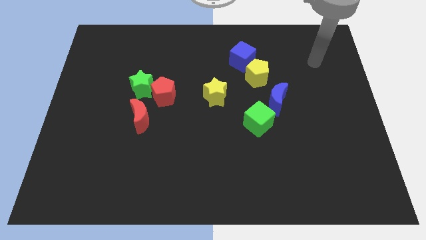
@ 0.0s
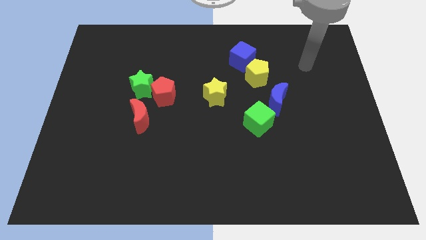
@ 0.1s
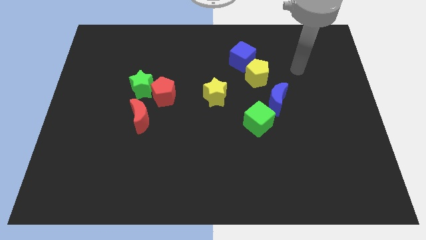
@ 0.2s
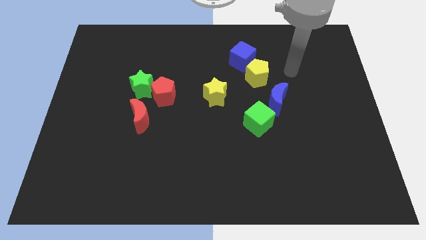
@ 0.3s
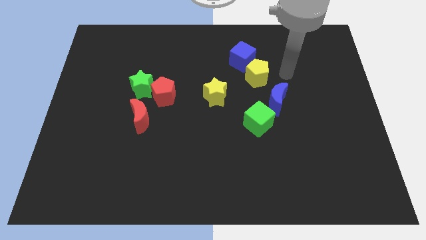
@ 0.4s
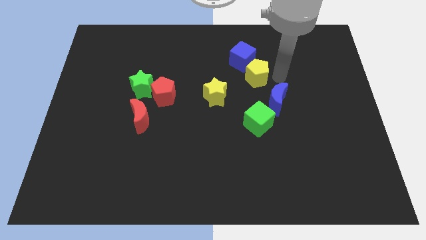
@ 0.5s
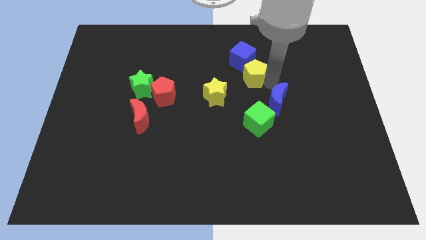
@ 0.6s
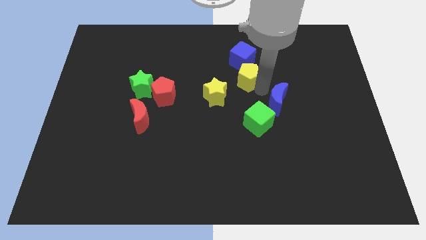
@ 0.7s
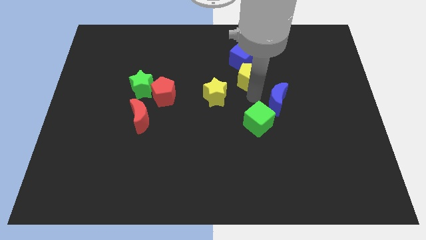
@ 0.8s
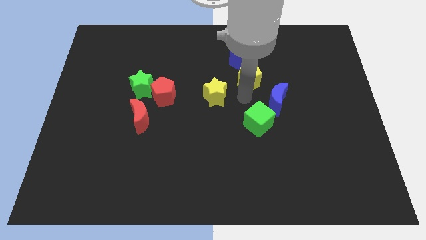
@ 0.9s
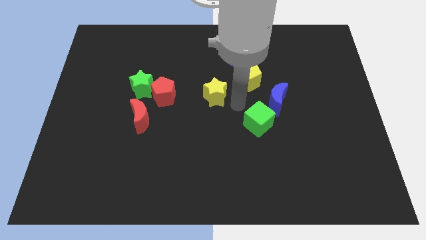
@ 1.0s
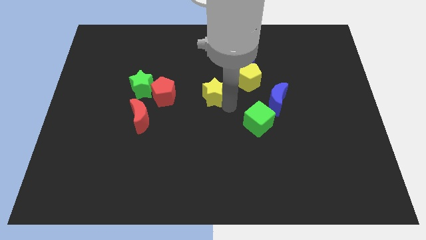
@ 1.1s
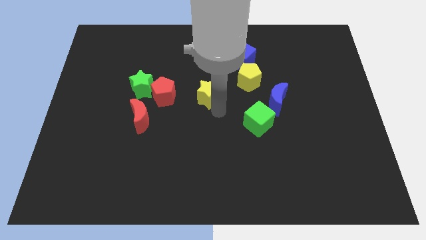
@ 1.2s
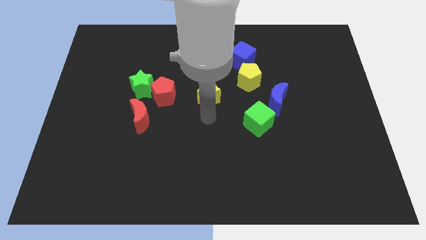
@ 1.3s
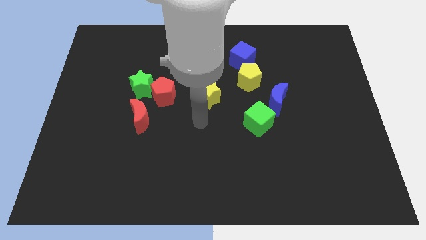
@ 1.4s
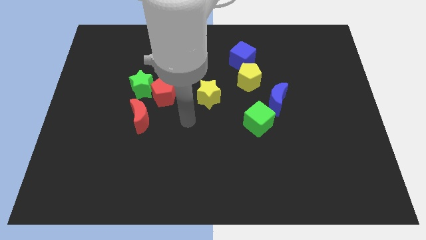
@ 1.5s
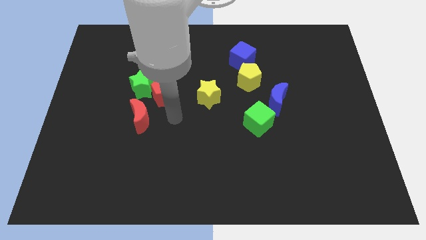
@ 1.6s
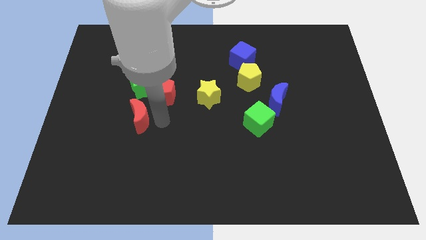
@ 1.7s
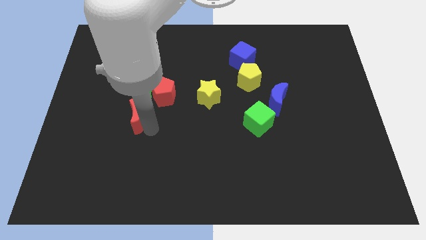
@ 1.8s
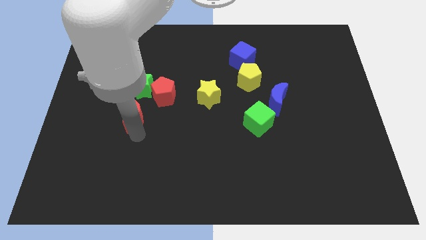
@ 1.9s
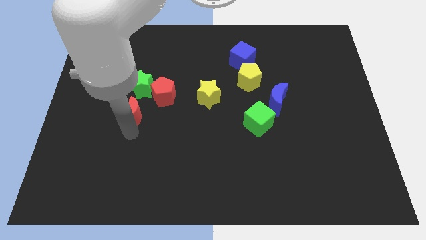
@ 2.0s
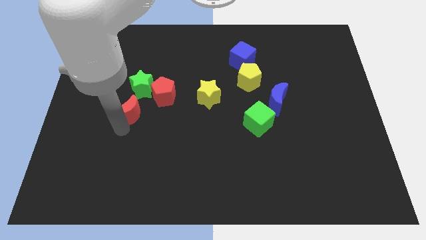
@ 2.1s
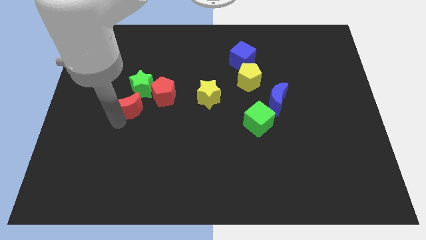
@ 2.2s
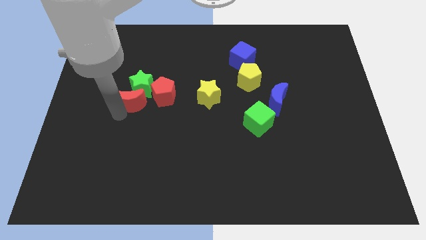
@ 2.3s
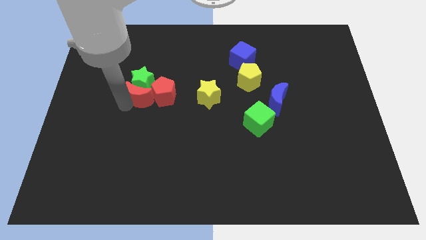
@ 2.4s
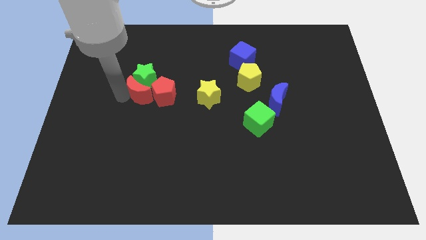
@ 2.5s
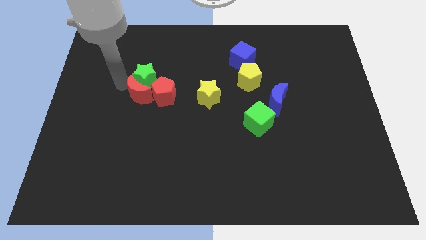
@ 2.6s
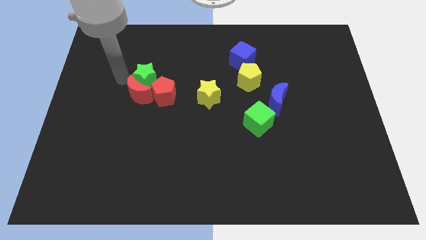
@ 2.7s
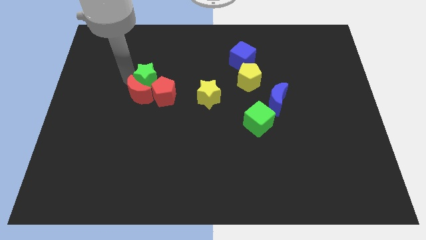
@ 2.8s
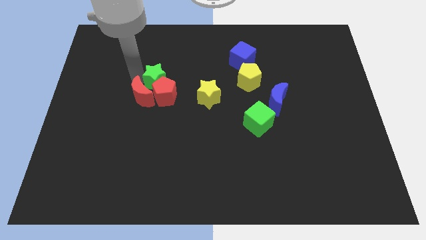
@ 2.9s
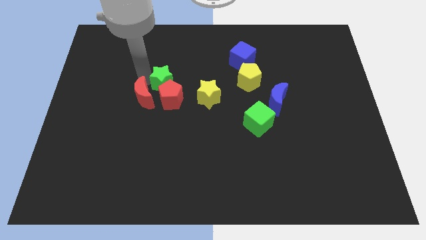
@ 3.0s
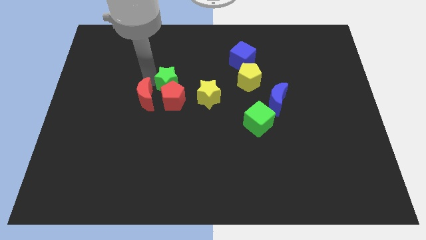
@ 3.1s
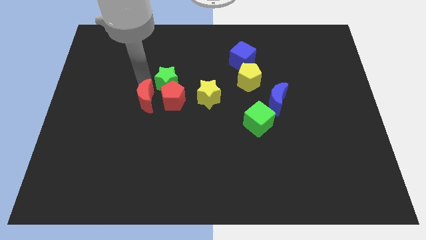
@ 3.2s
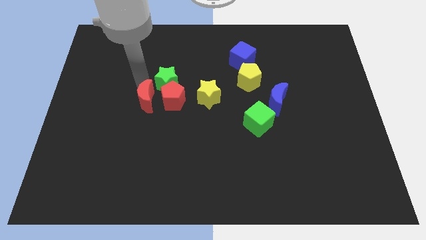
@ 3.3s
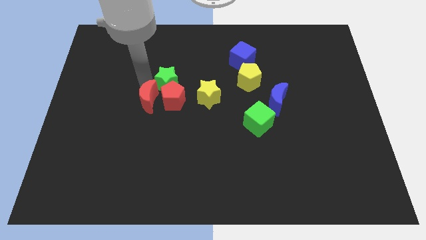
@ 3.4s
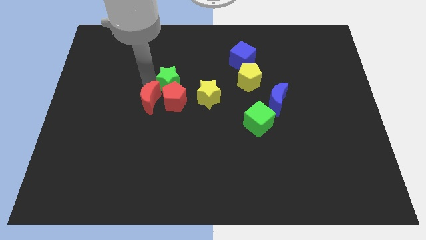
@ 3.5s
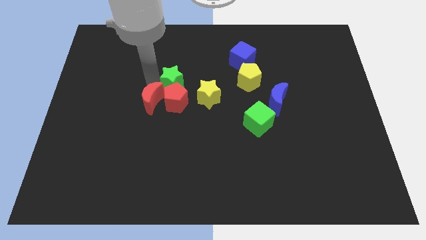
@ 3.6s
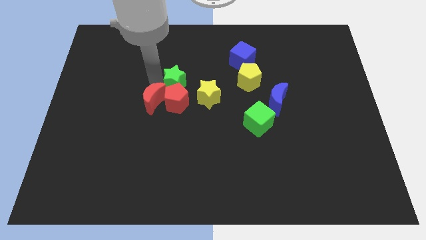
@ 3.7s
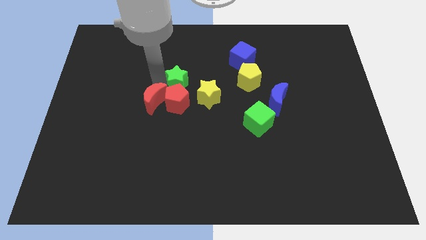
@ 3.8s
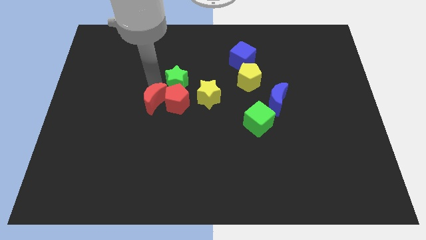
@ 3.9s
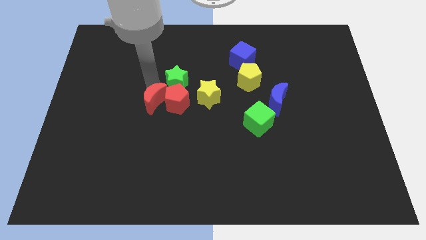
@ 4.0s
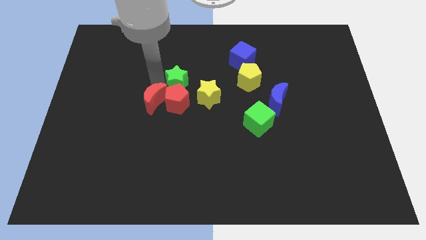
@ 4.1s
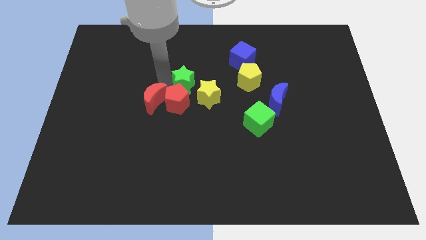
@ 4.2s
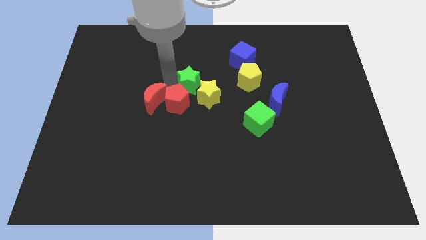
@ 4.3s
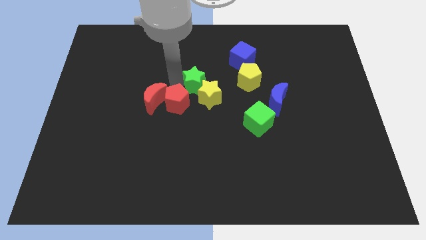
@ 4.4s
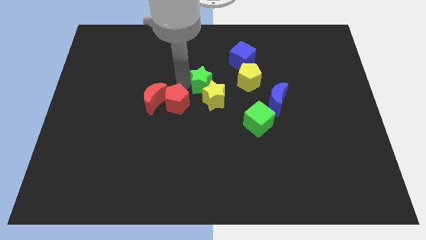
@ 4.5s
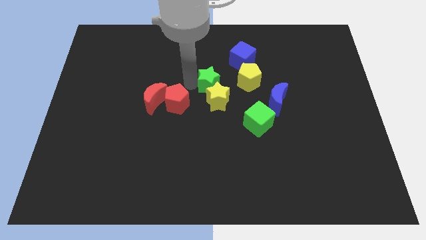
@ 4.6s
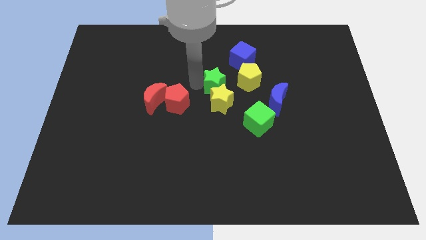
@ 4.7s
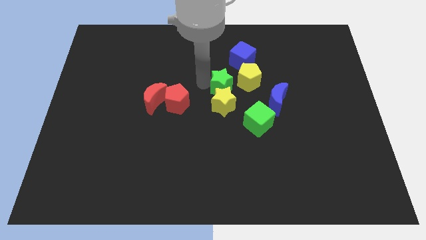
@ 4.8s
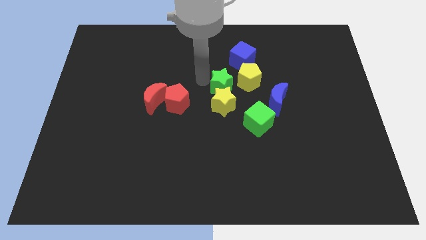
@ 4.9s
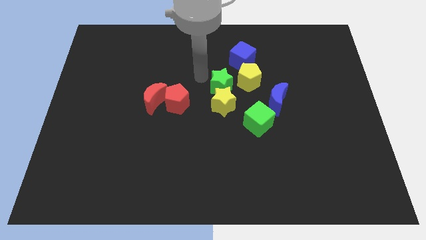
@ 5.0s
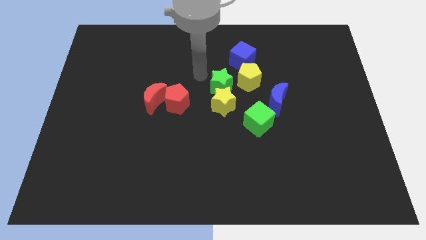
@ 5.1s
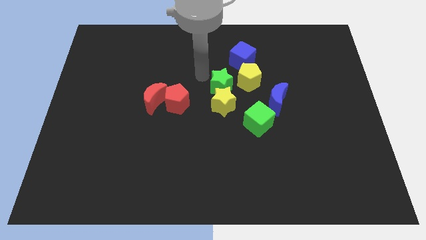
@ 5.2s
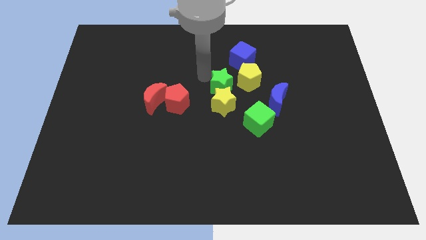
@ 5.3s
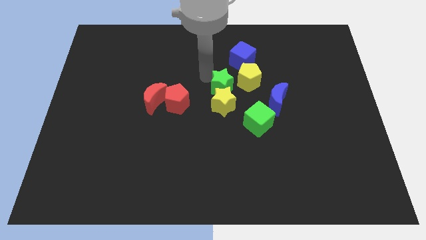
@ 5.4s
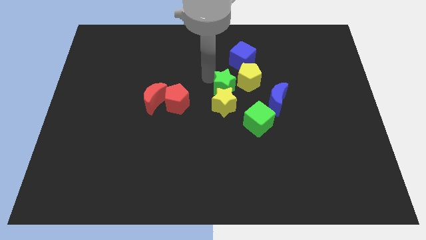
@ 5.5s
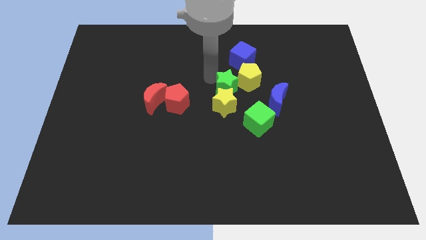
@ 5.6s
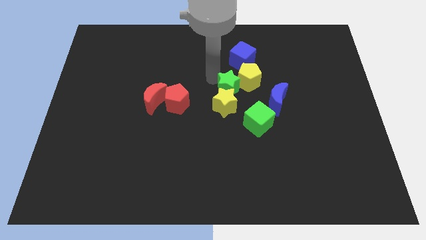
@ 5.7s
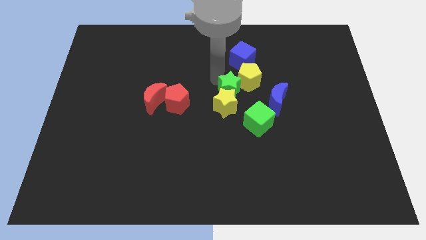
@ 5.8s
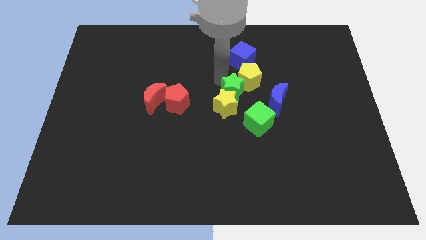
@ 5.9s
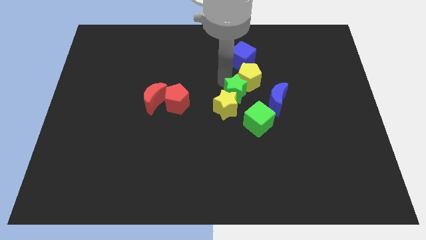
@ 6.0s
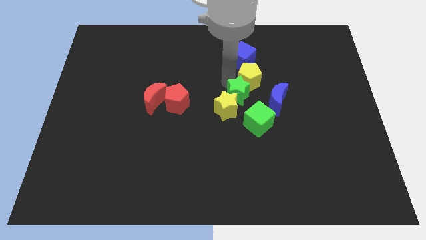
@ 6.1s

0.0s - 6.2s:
move the green star to the right side of the yellow star
